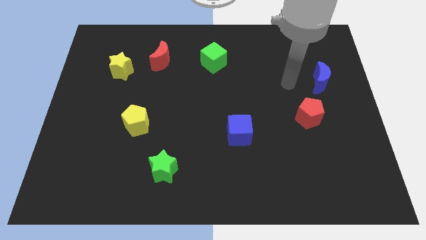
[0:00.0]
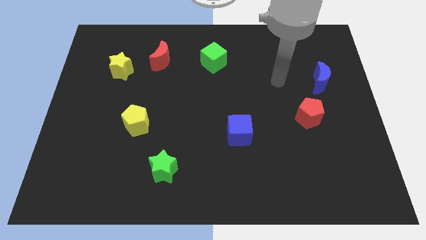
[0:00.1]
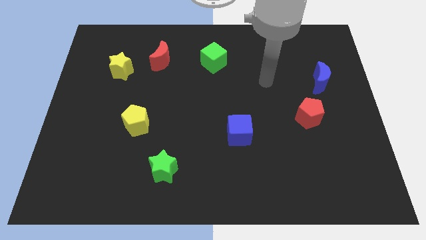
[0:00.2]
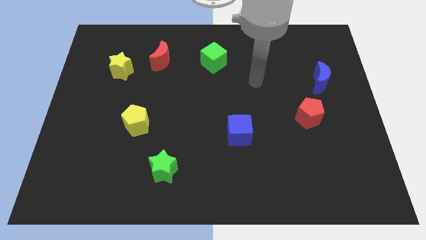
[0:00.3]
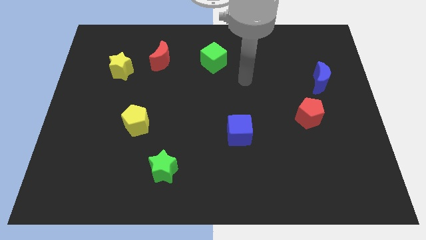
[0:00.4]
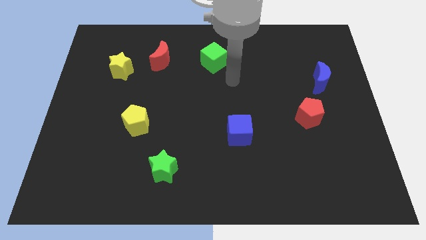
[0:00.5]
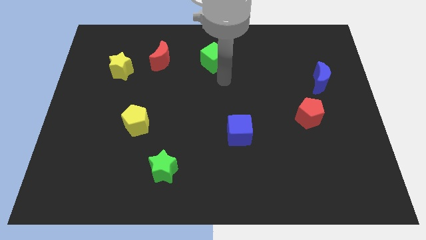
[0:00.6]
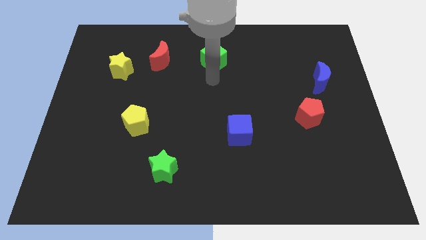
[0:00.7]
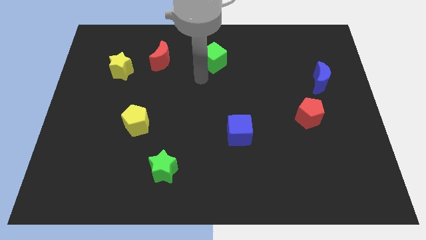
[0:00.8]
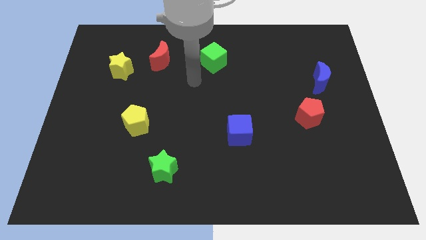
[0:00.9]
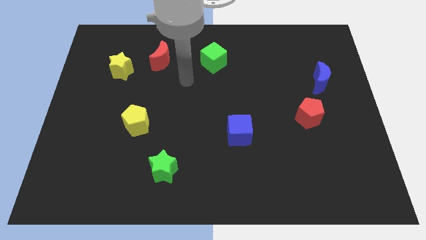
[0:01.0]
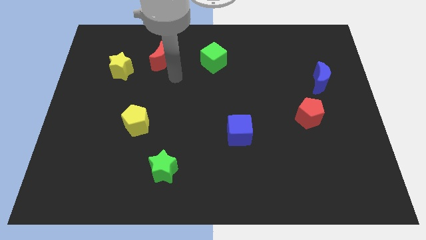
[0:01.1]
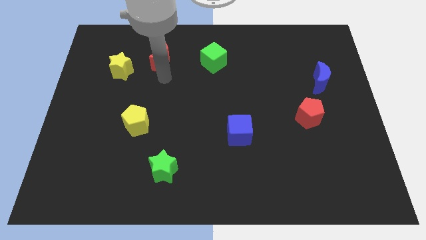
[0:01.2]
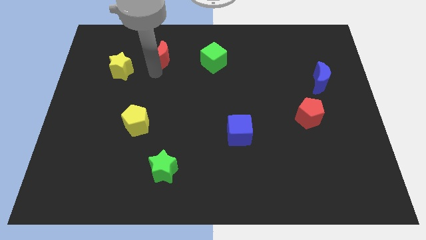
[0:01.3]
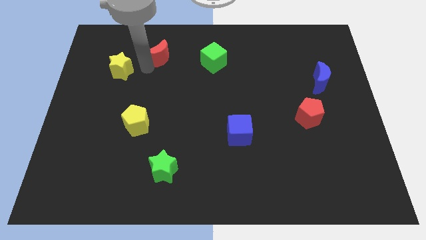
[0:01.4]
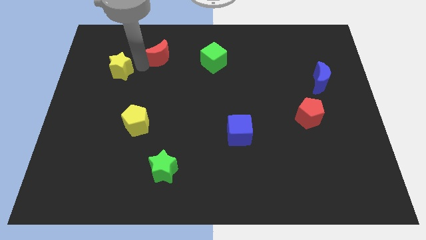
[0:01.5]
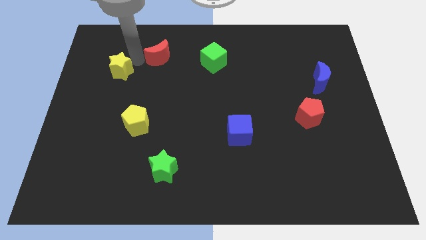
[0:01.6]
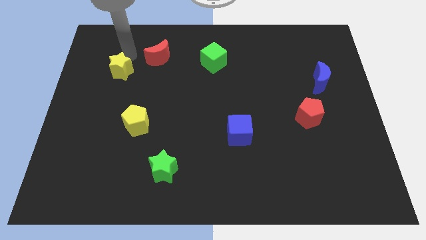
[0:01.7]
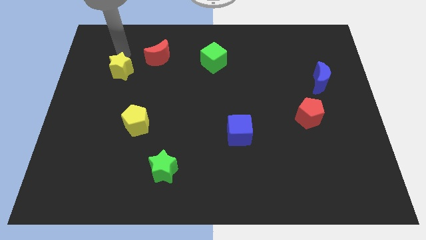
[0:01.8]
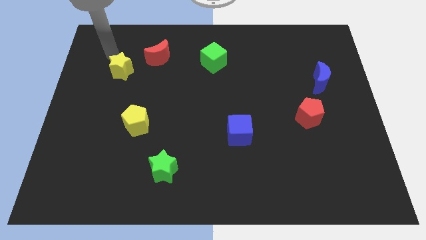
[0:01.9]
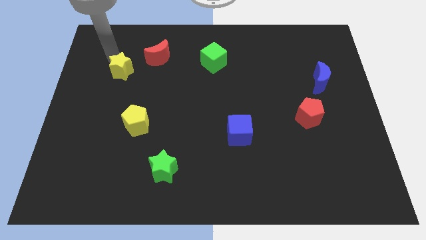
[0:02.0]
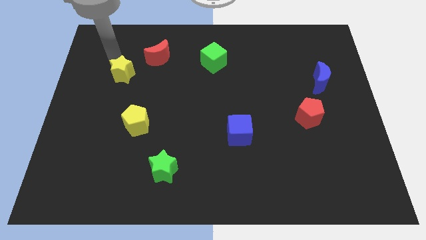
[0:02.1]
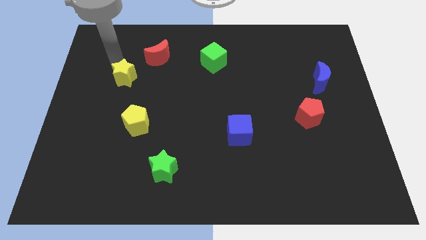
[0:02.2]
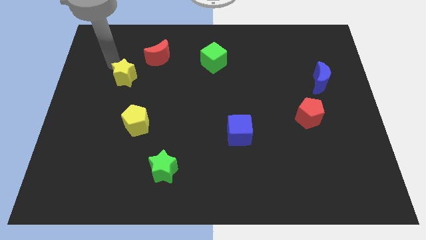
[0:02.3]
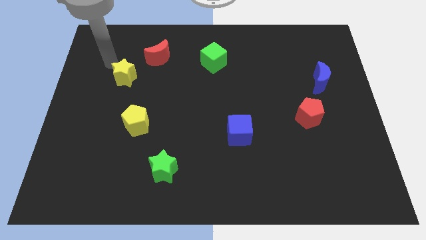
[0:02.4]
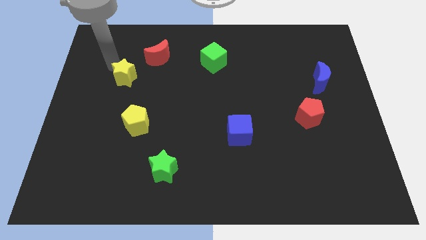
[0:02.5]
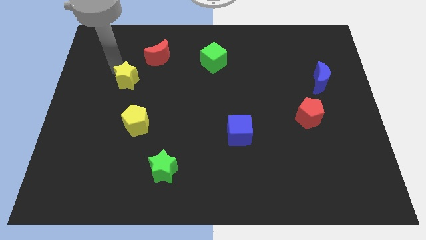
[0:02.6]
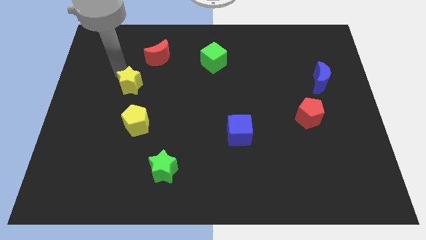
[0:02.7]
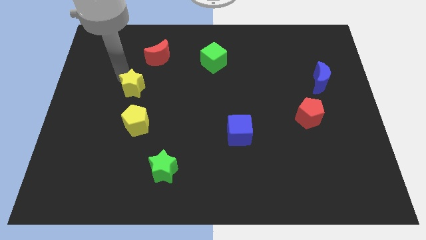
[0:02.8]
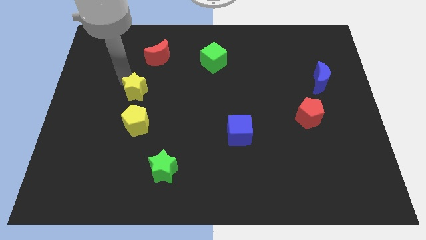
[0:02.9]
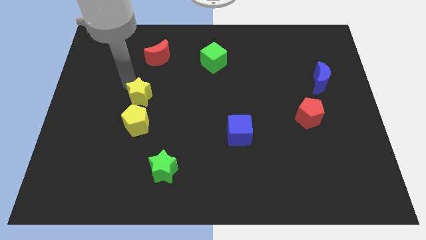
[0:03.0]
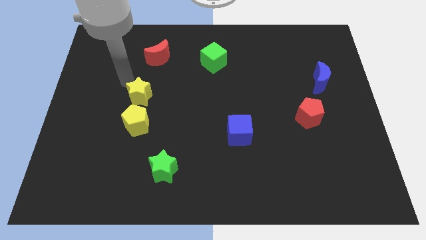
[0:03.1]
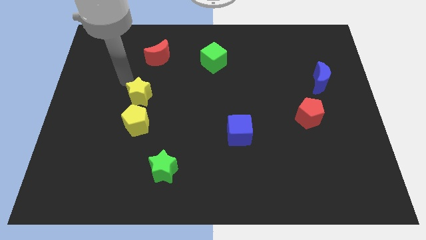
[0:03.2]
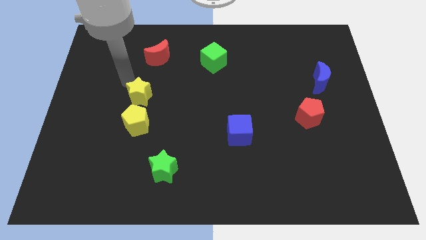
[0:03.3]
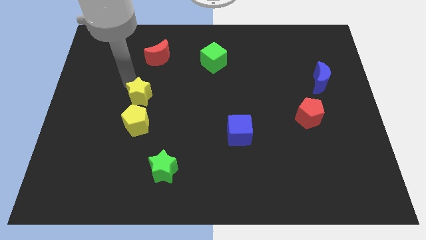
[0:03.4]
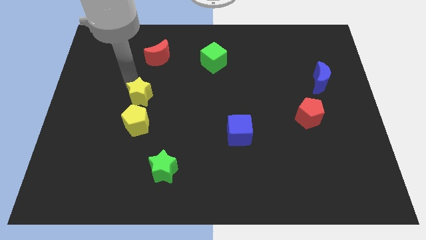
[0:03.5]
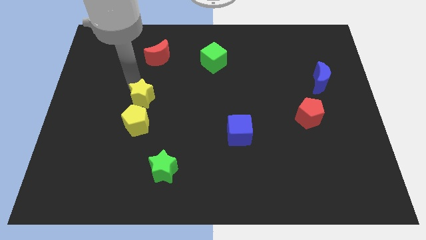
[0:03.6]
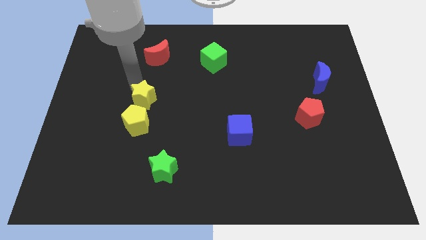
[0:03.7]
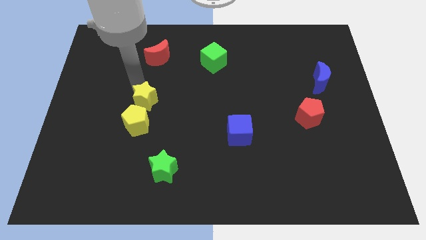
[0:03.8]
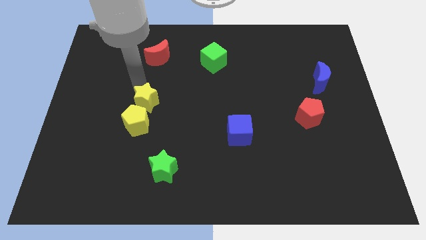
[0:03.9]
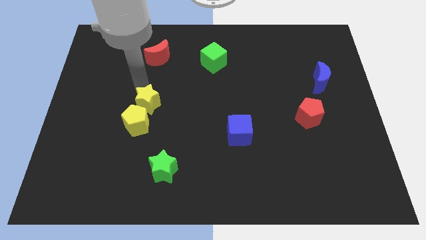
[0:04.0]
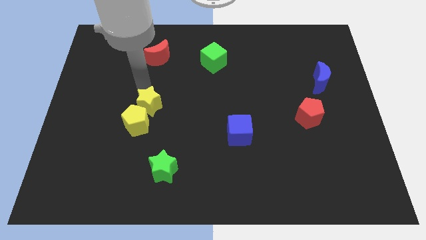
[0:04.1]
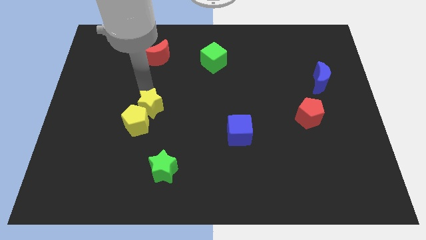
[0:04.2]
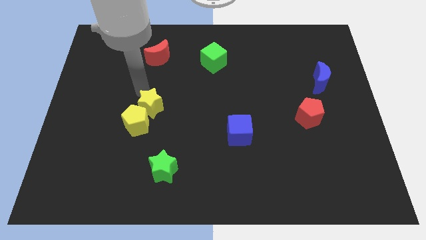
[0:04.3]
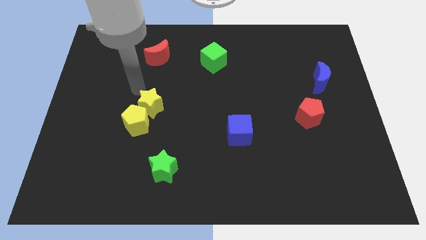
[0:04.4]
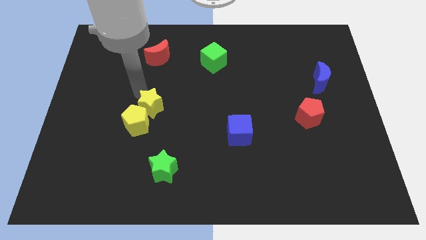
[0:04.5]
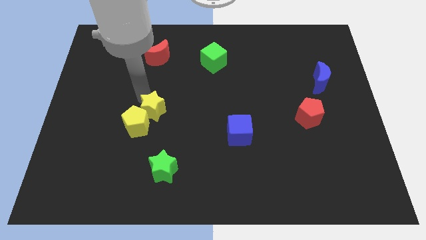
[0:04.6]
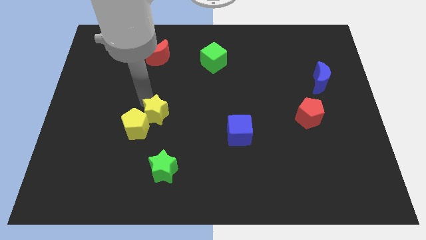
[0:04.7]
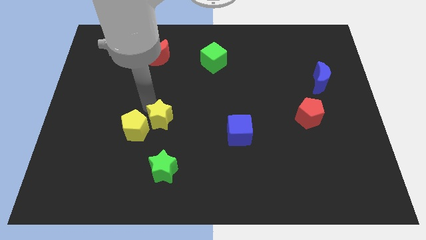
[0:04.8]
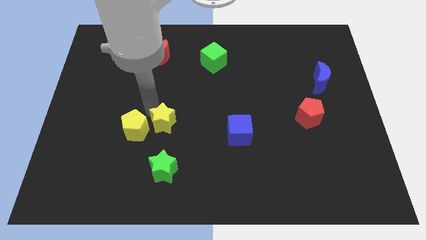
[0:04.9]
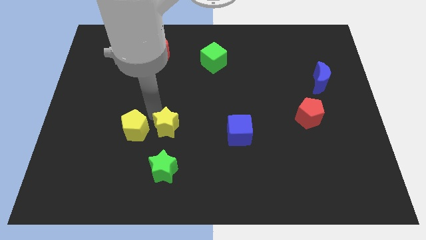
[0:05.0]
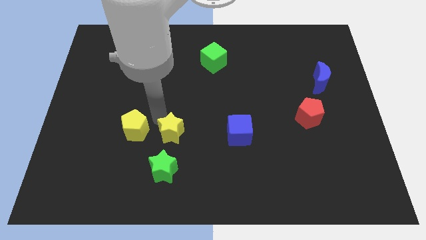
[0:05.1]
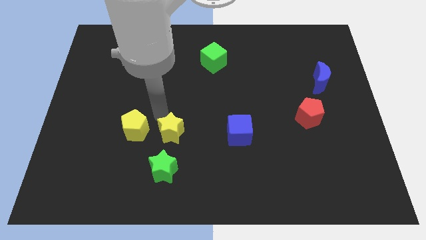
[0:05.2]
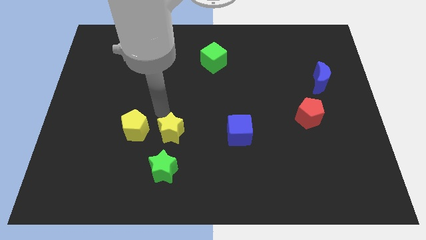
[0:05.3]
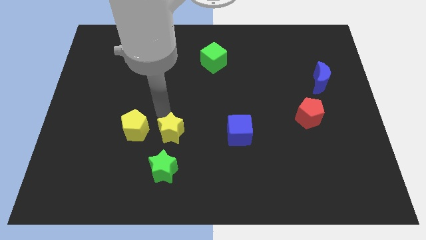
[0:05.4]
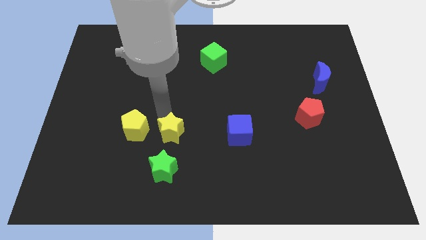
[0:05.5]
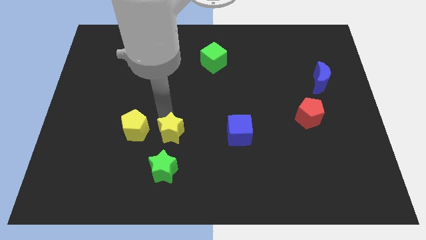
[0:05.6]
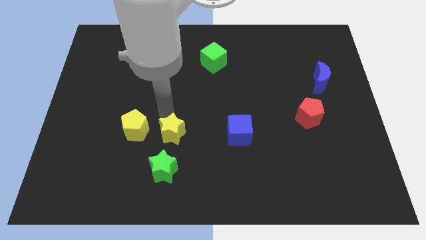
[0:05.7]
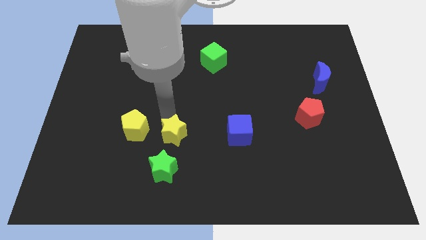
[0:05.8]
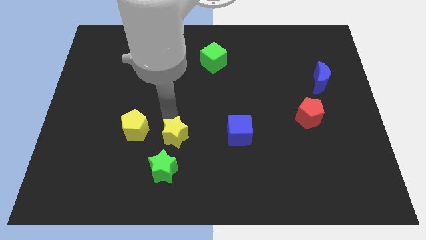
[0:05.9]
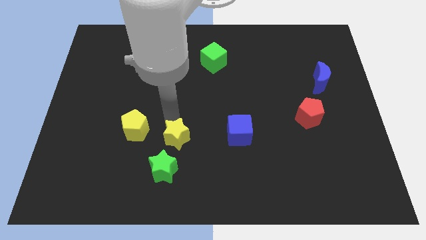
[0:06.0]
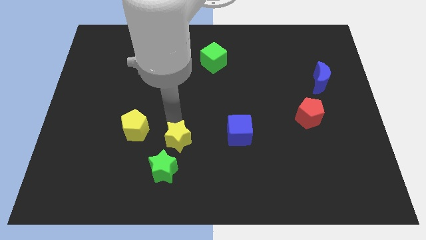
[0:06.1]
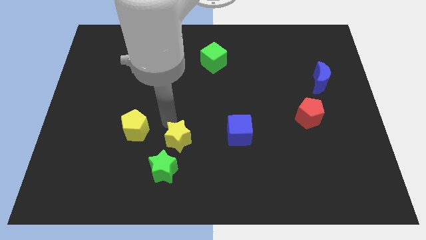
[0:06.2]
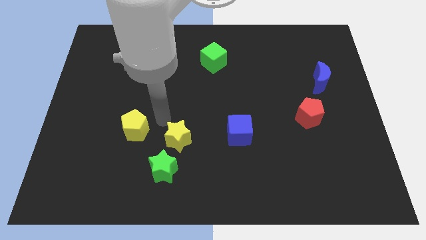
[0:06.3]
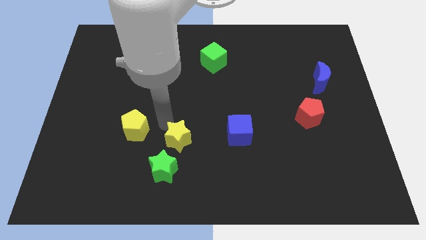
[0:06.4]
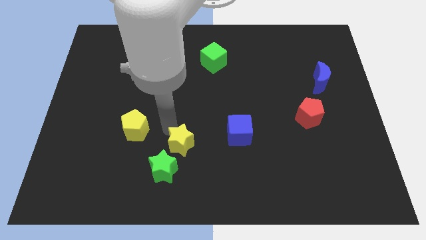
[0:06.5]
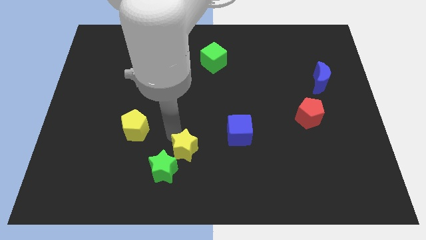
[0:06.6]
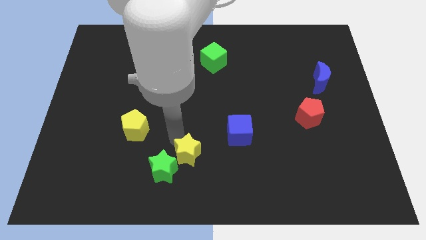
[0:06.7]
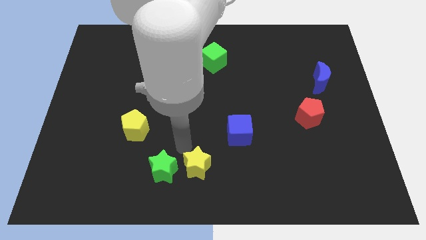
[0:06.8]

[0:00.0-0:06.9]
move the yellow star to the bottom

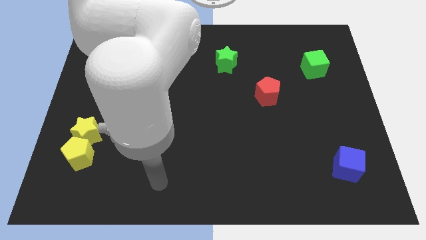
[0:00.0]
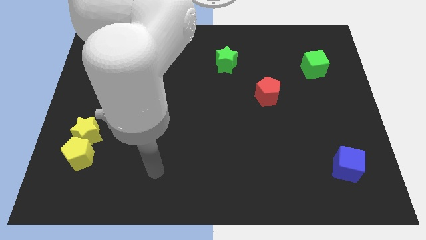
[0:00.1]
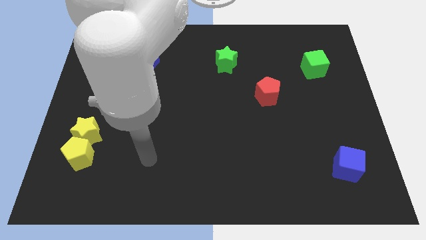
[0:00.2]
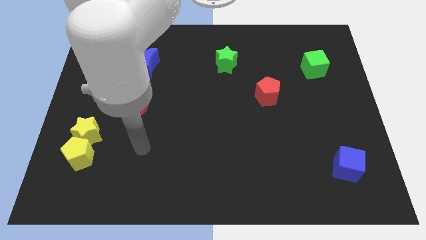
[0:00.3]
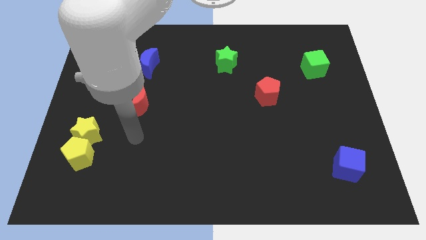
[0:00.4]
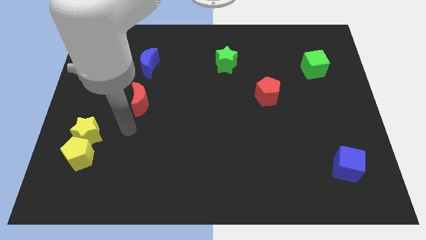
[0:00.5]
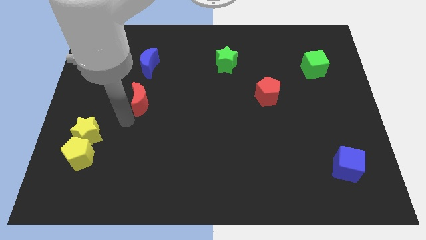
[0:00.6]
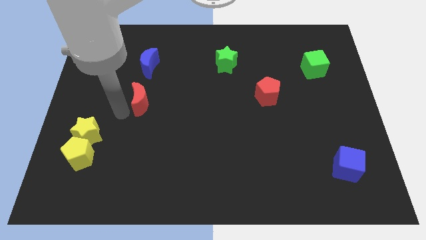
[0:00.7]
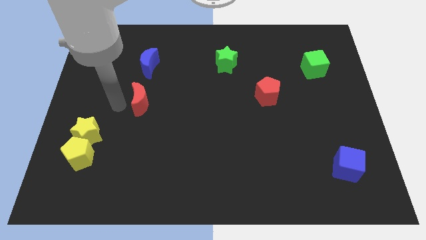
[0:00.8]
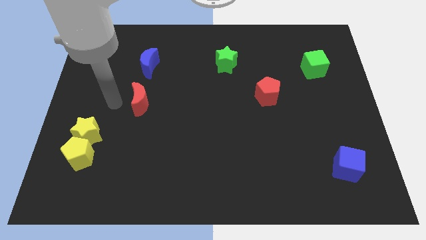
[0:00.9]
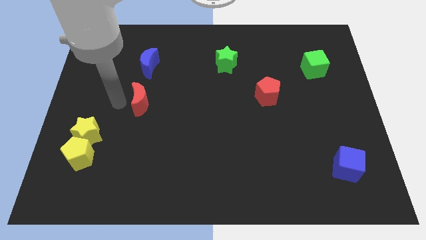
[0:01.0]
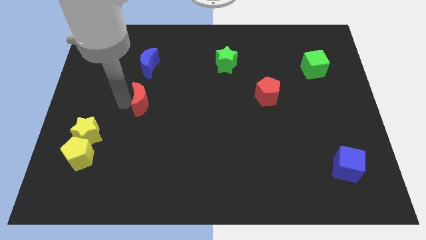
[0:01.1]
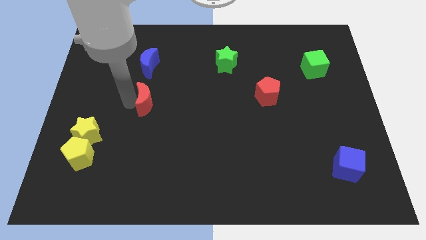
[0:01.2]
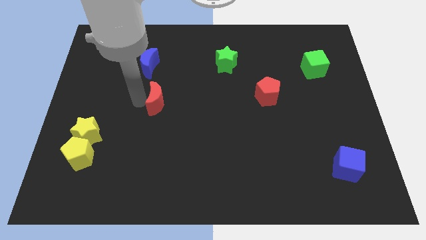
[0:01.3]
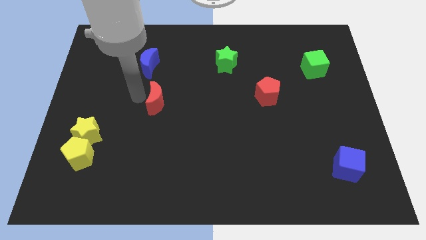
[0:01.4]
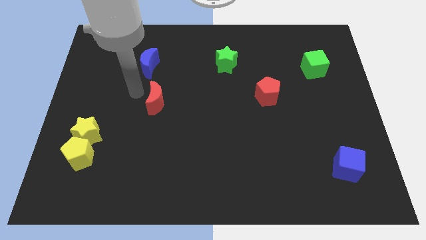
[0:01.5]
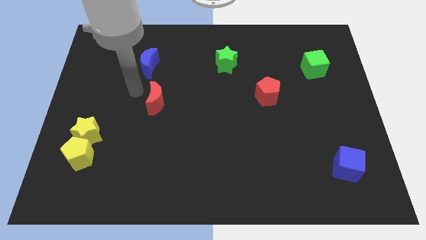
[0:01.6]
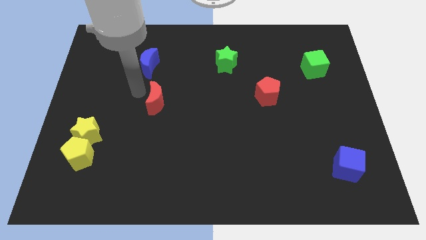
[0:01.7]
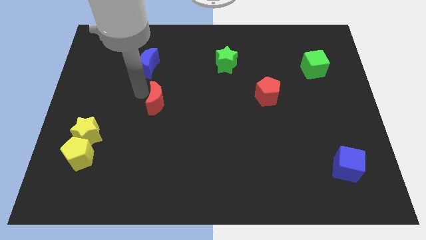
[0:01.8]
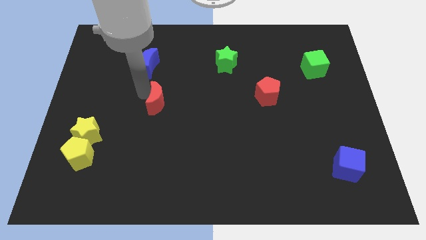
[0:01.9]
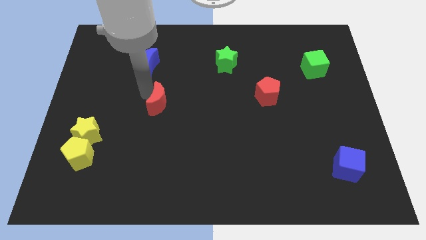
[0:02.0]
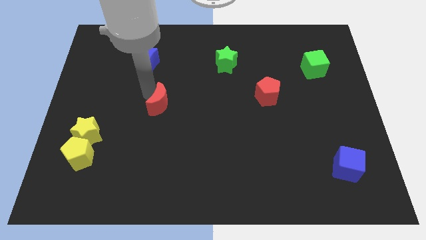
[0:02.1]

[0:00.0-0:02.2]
put the red moon to the middle
